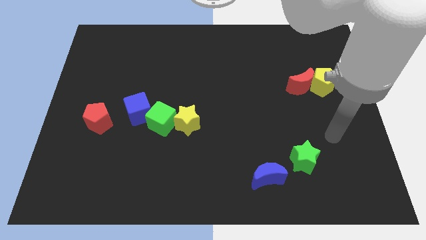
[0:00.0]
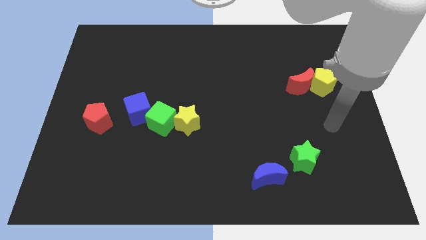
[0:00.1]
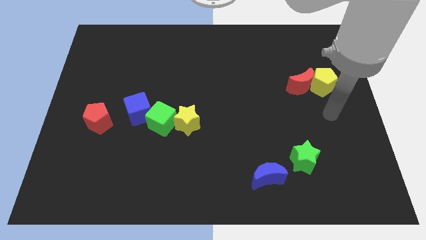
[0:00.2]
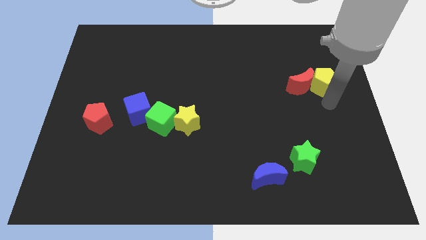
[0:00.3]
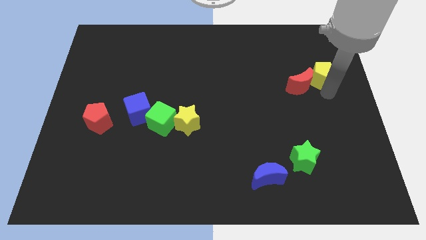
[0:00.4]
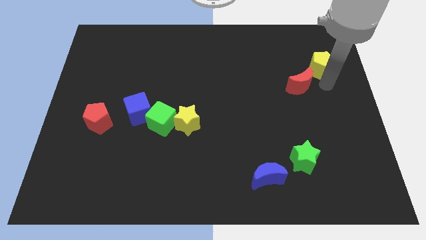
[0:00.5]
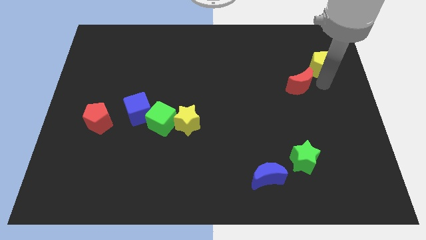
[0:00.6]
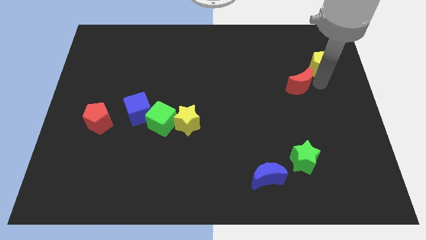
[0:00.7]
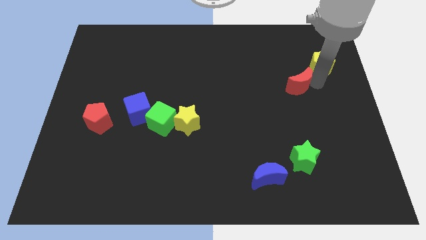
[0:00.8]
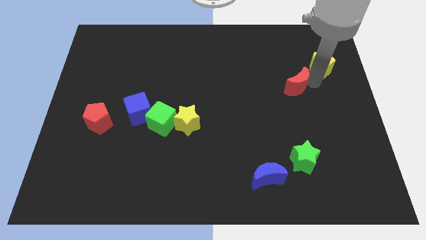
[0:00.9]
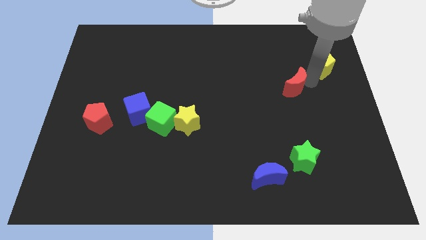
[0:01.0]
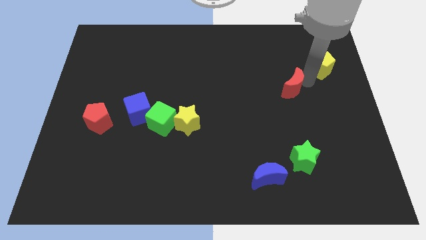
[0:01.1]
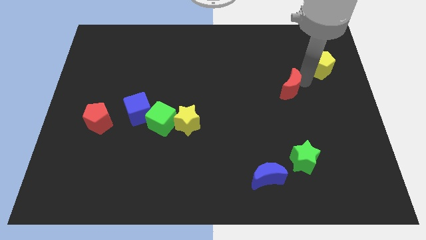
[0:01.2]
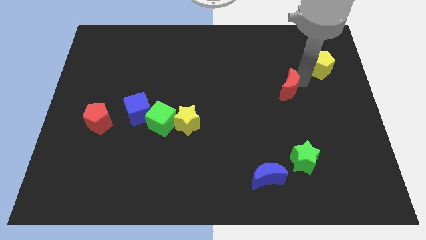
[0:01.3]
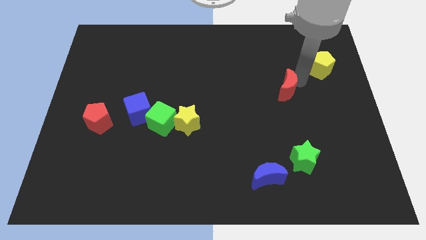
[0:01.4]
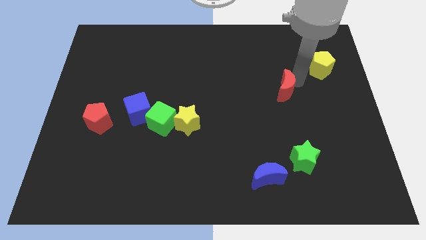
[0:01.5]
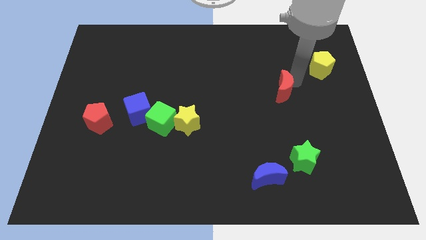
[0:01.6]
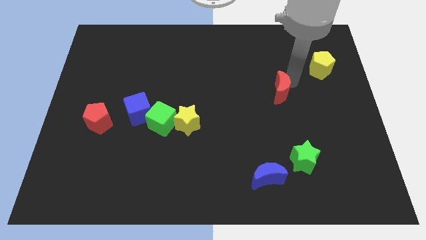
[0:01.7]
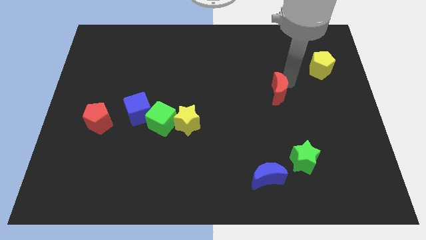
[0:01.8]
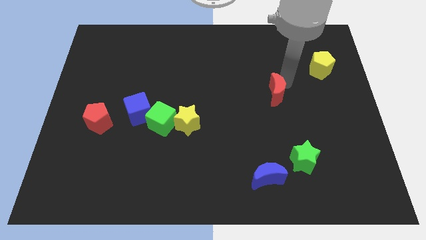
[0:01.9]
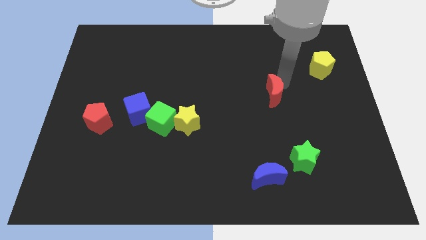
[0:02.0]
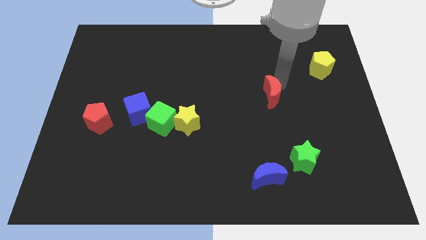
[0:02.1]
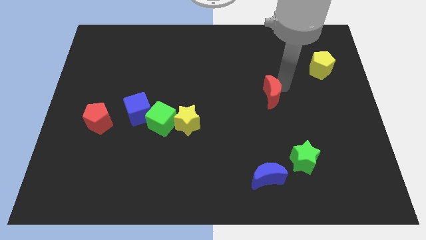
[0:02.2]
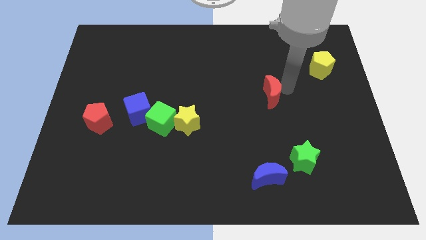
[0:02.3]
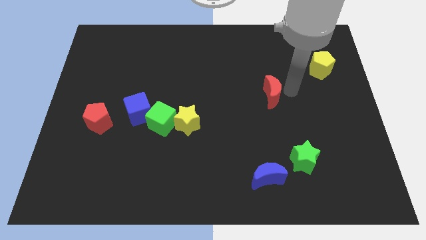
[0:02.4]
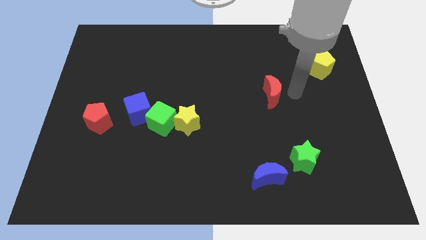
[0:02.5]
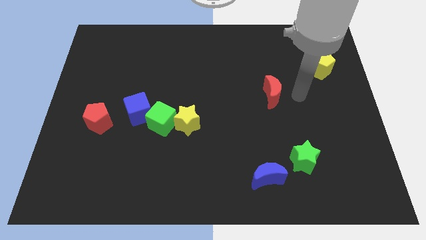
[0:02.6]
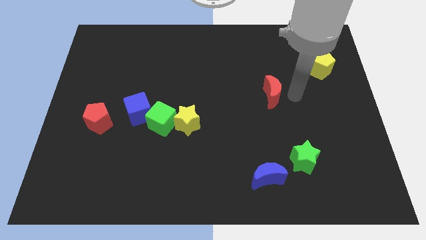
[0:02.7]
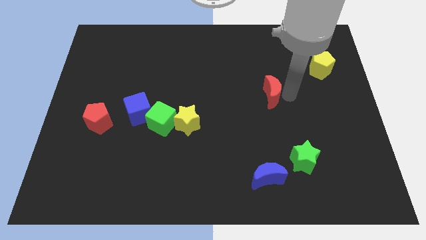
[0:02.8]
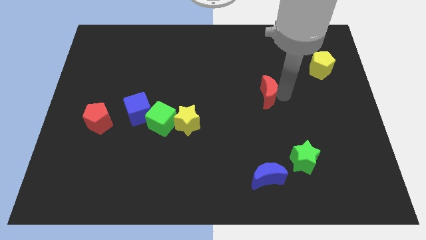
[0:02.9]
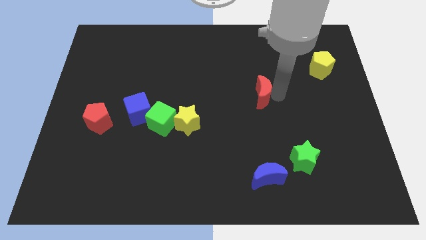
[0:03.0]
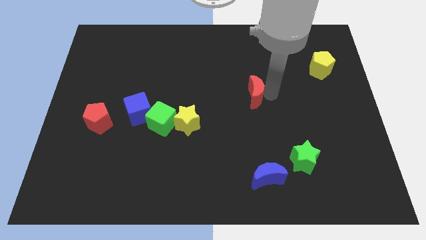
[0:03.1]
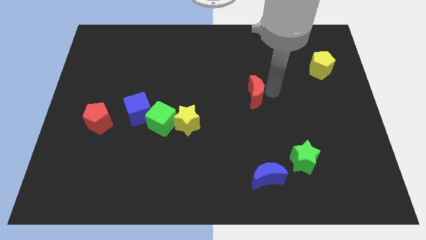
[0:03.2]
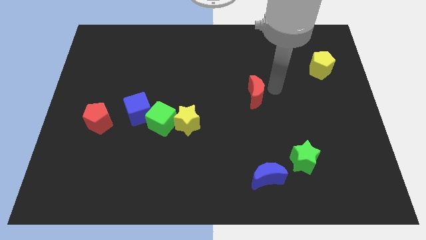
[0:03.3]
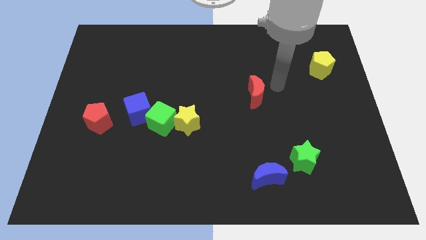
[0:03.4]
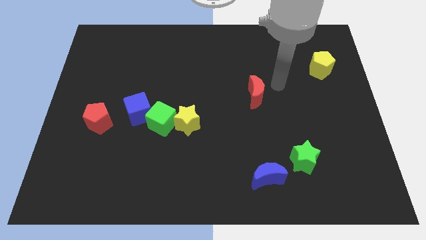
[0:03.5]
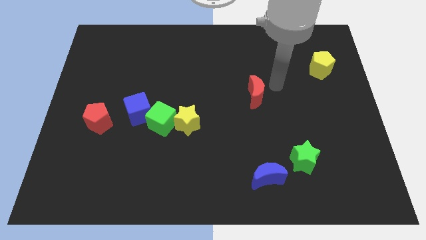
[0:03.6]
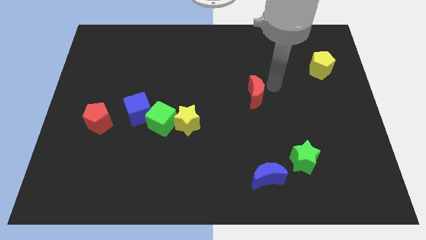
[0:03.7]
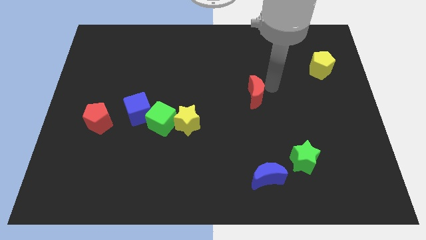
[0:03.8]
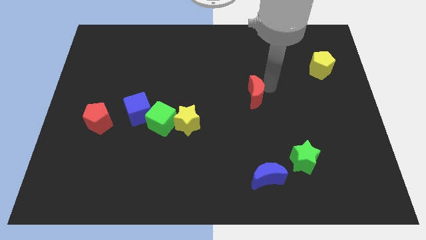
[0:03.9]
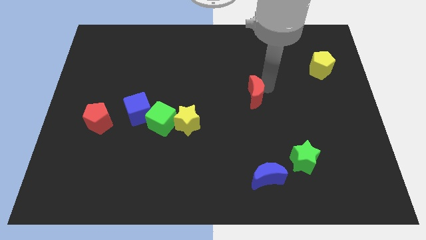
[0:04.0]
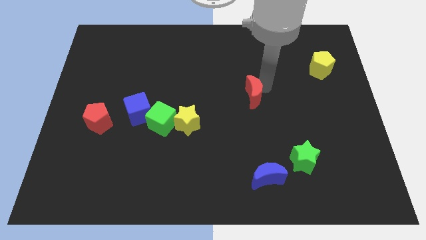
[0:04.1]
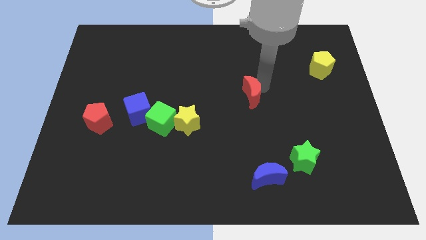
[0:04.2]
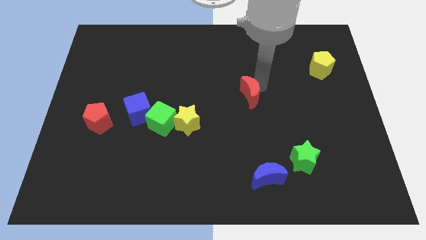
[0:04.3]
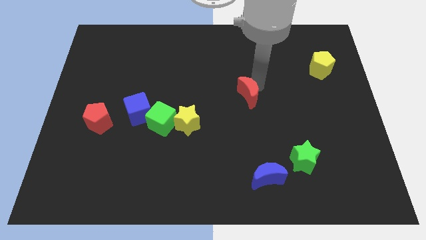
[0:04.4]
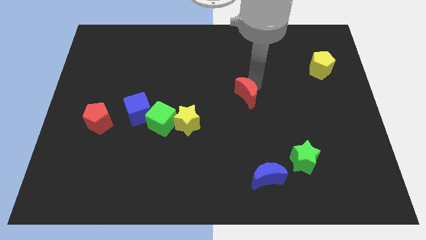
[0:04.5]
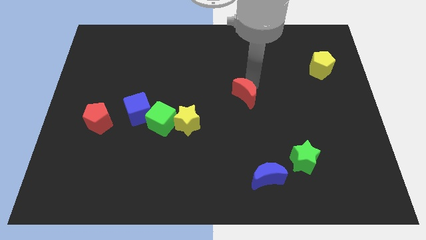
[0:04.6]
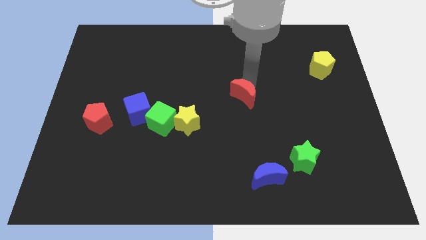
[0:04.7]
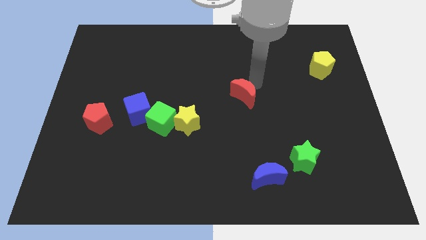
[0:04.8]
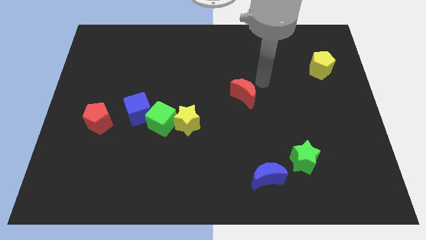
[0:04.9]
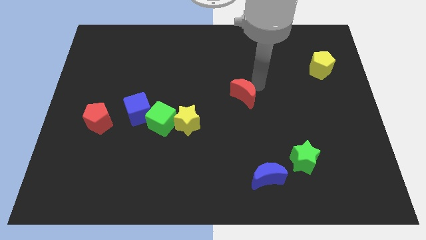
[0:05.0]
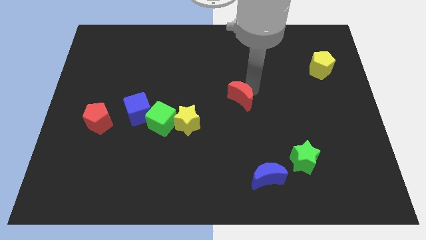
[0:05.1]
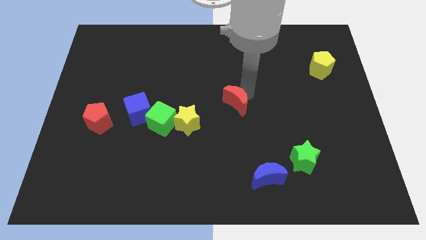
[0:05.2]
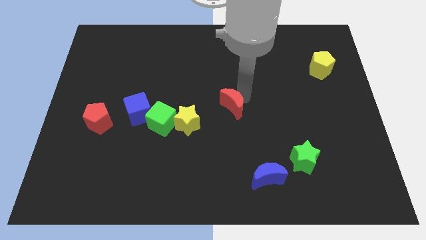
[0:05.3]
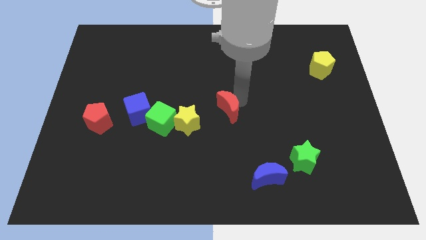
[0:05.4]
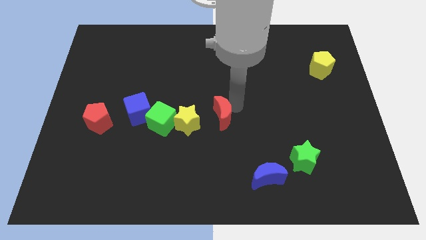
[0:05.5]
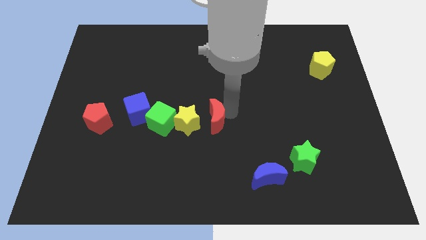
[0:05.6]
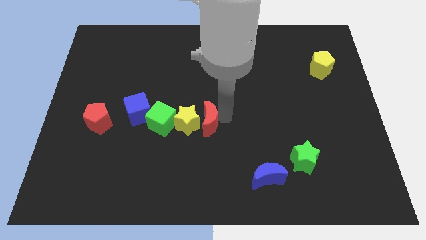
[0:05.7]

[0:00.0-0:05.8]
push the red moon to the yellow star
